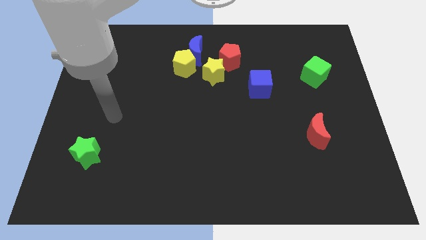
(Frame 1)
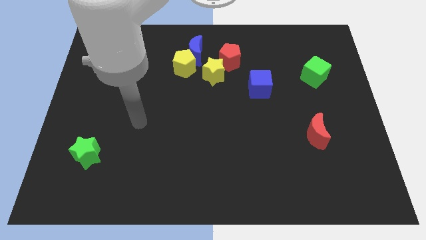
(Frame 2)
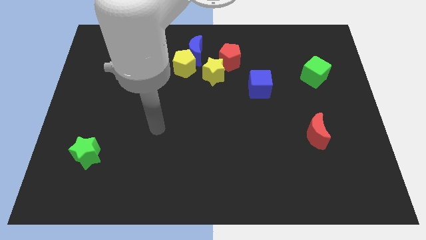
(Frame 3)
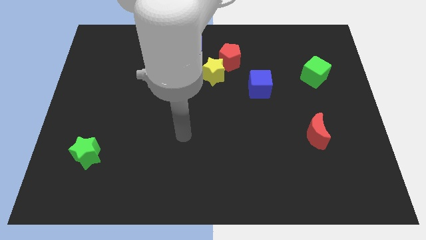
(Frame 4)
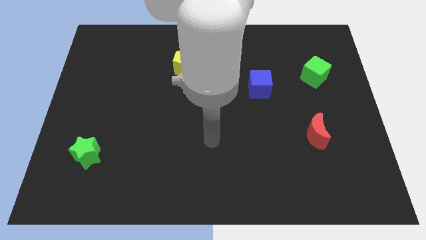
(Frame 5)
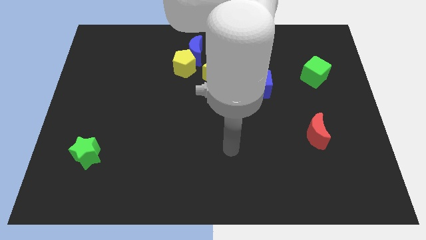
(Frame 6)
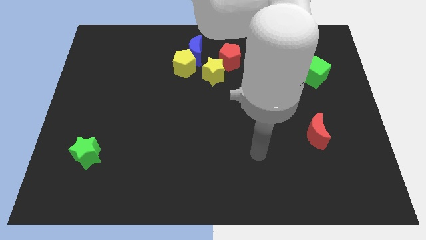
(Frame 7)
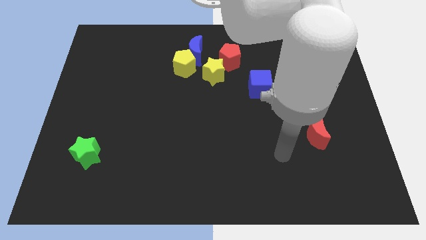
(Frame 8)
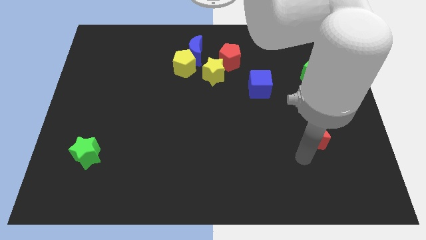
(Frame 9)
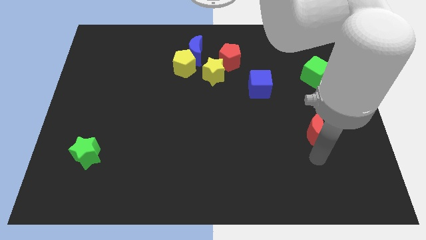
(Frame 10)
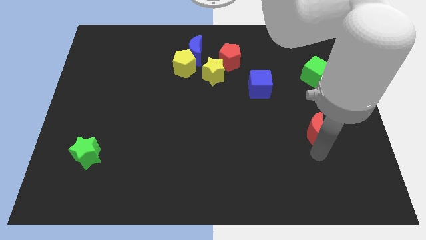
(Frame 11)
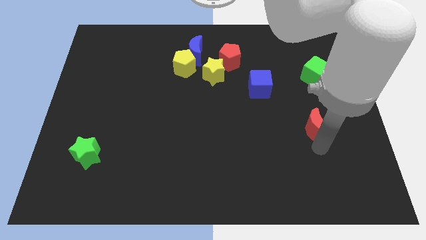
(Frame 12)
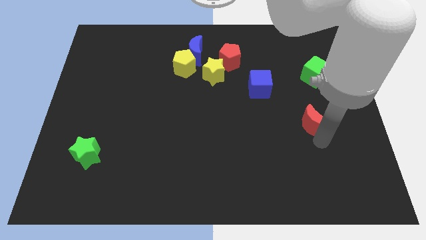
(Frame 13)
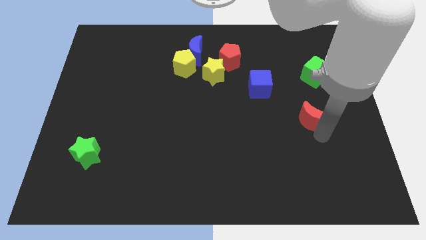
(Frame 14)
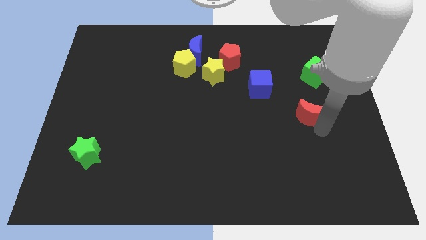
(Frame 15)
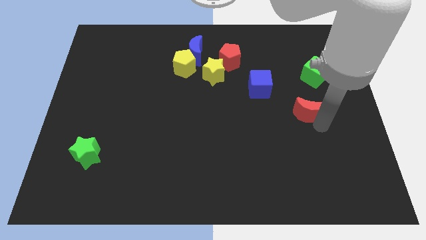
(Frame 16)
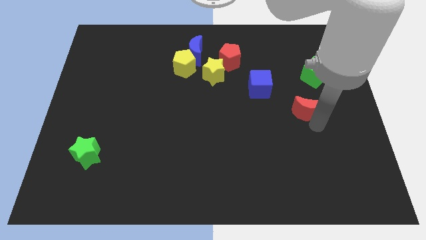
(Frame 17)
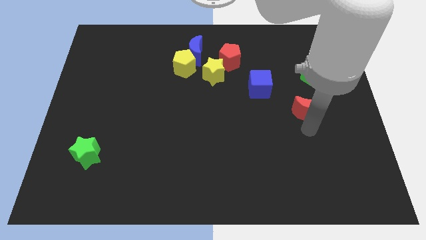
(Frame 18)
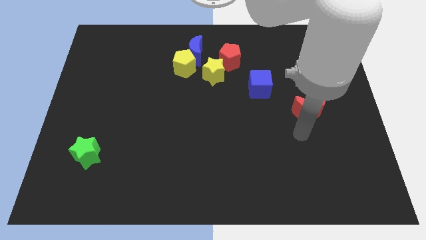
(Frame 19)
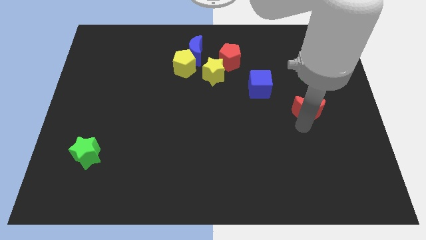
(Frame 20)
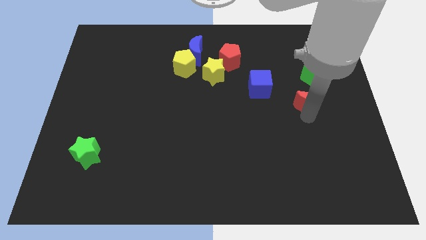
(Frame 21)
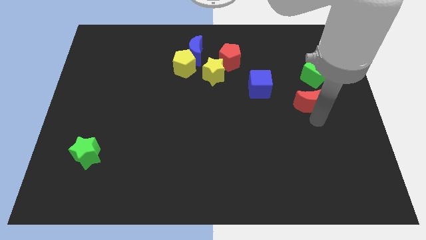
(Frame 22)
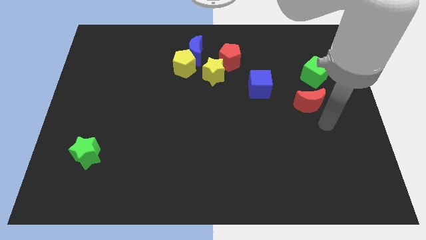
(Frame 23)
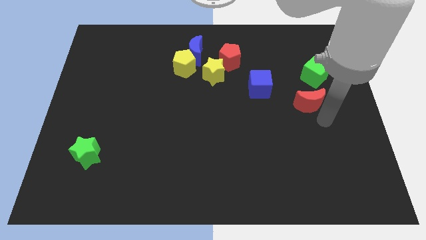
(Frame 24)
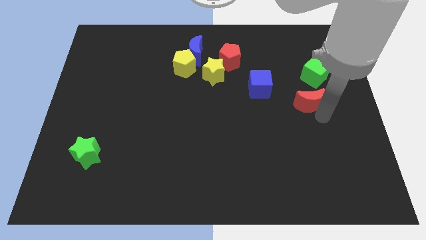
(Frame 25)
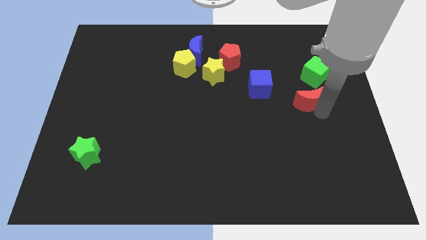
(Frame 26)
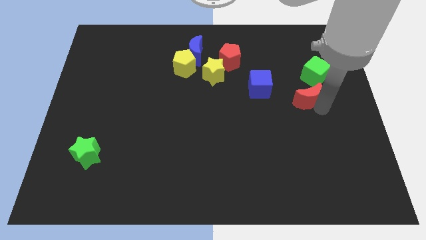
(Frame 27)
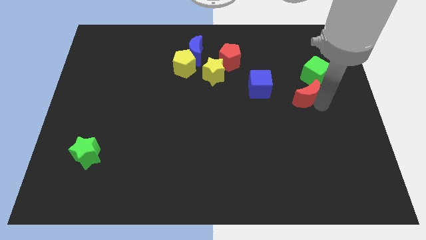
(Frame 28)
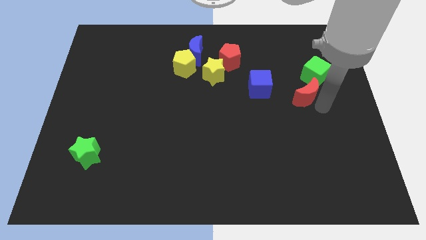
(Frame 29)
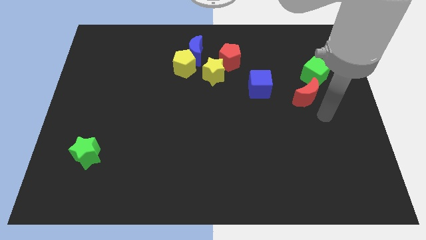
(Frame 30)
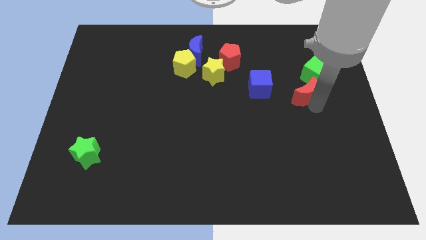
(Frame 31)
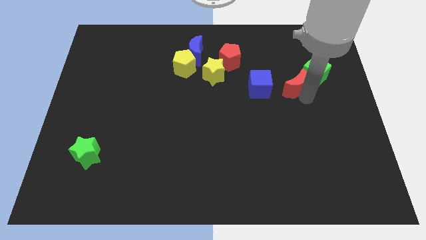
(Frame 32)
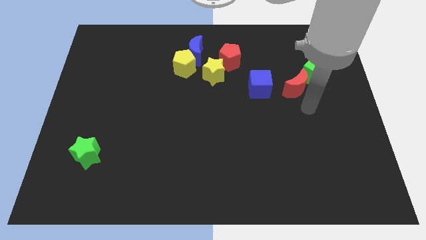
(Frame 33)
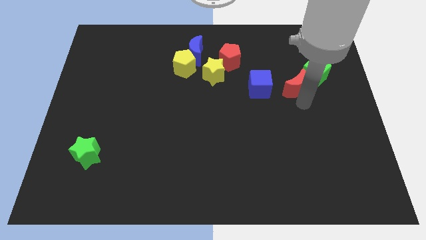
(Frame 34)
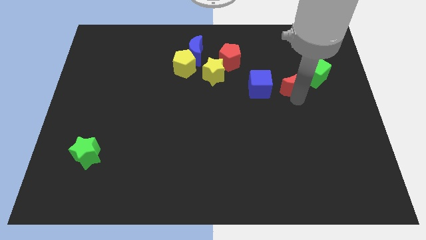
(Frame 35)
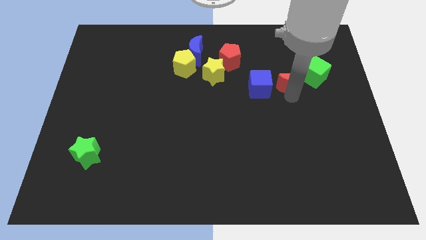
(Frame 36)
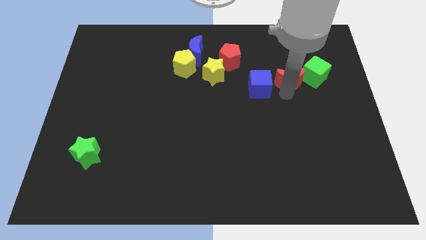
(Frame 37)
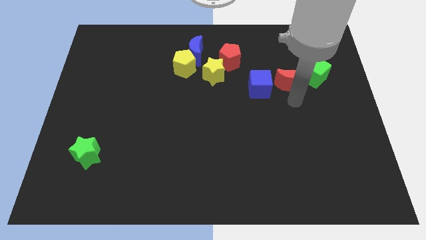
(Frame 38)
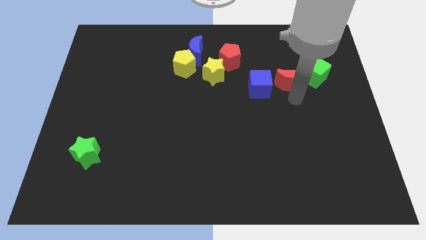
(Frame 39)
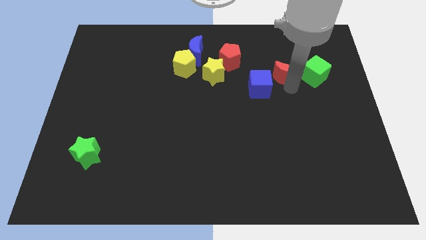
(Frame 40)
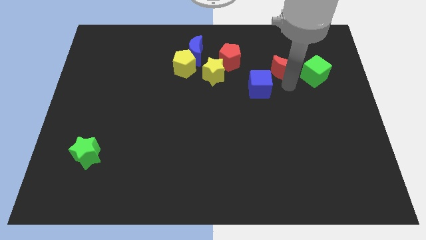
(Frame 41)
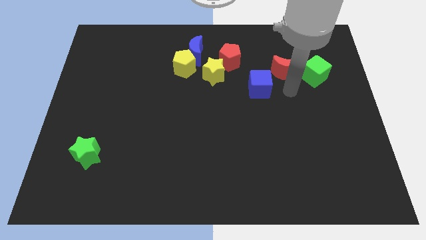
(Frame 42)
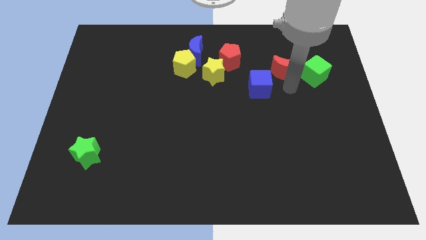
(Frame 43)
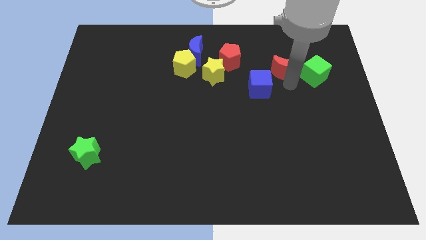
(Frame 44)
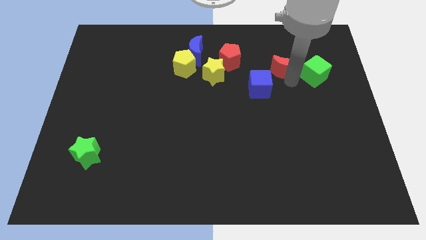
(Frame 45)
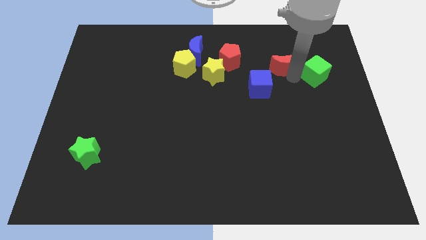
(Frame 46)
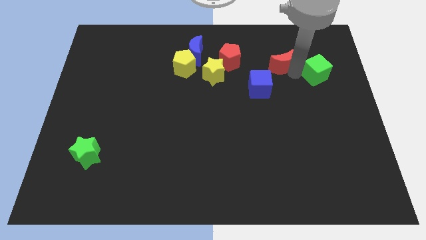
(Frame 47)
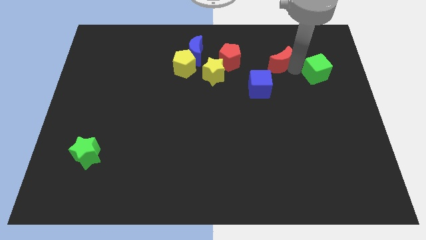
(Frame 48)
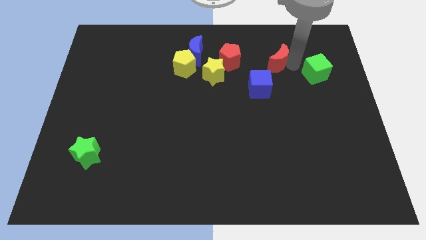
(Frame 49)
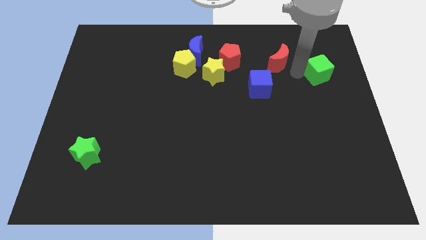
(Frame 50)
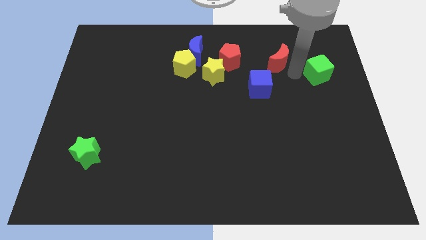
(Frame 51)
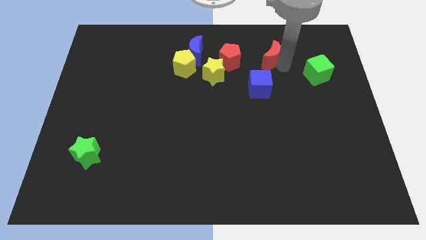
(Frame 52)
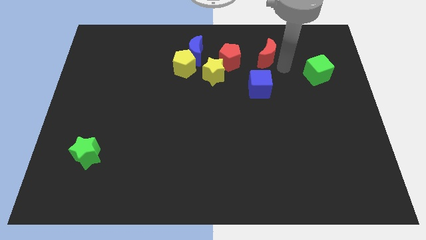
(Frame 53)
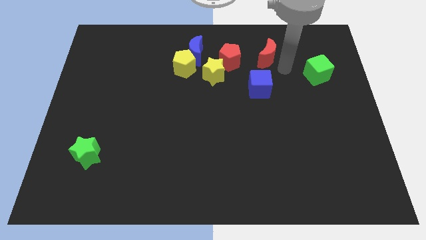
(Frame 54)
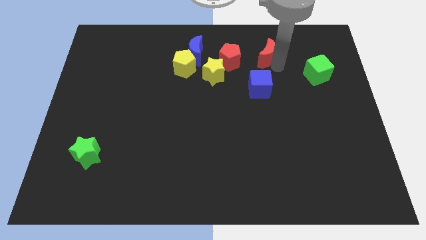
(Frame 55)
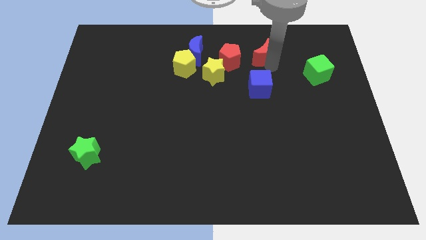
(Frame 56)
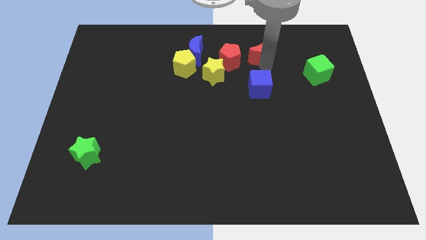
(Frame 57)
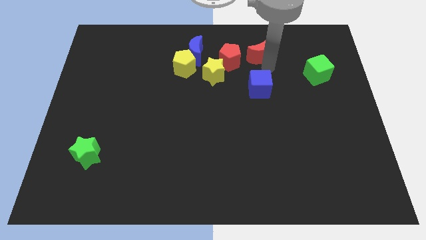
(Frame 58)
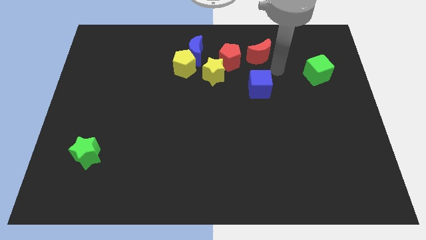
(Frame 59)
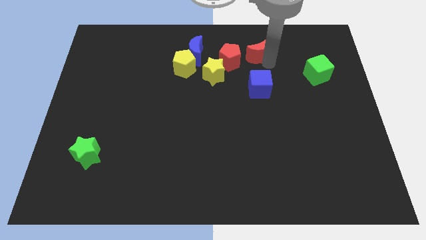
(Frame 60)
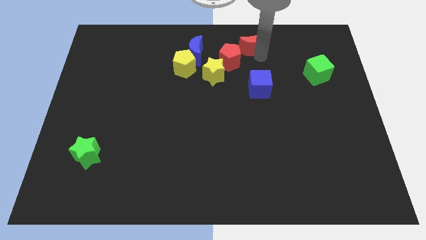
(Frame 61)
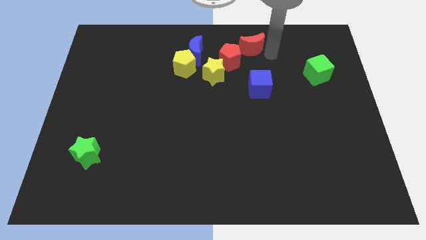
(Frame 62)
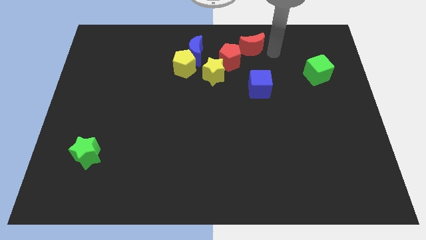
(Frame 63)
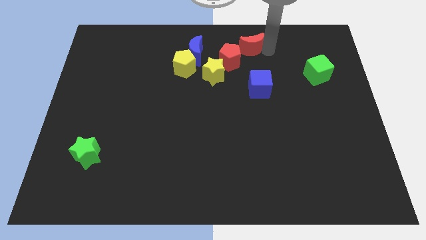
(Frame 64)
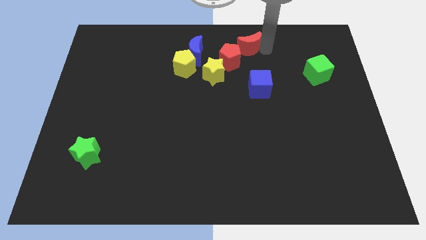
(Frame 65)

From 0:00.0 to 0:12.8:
push the red moon to the top side

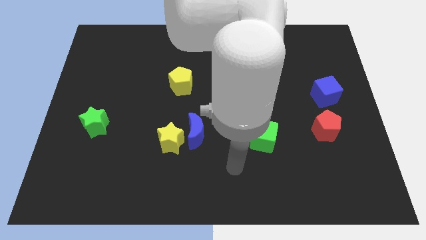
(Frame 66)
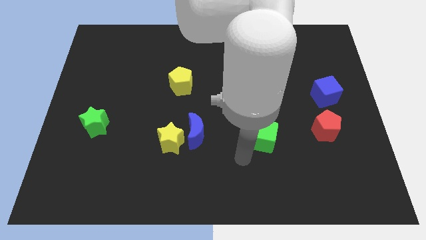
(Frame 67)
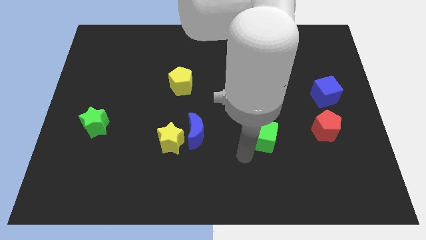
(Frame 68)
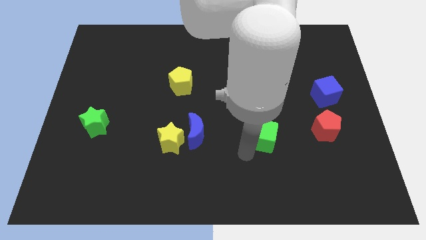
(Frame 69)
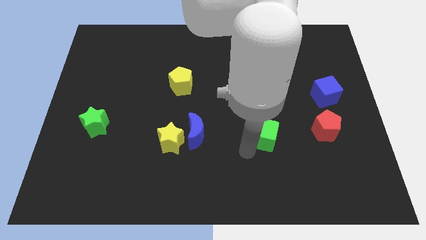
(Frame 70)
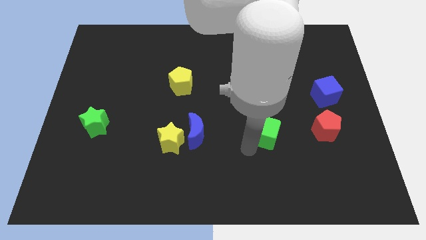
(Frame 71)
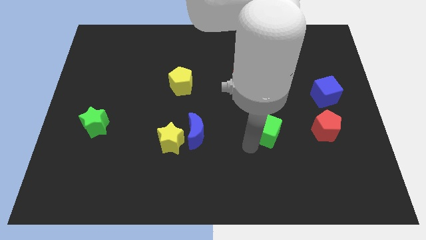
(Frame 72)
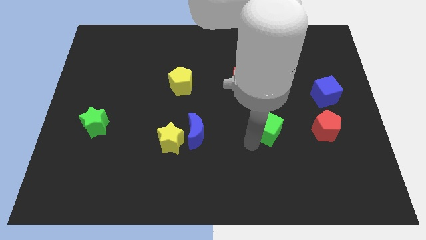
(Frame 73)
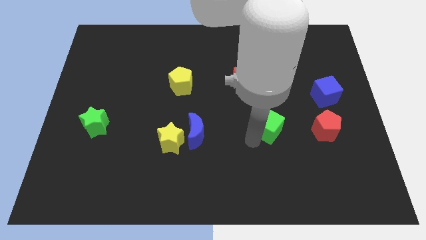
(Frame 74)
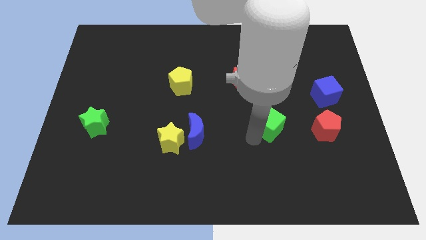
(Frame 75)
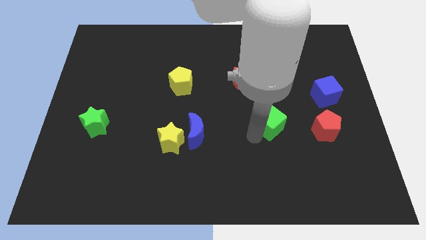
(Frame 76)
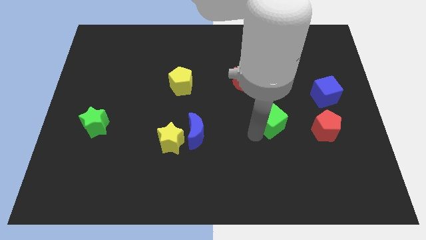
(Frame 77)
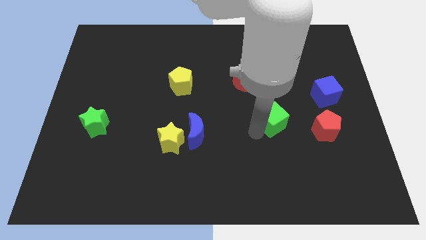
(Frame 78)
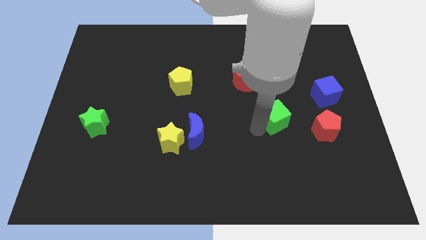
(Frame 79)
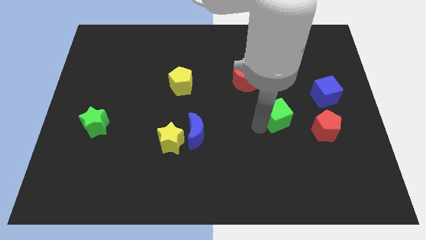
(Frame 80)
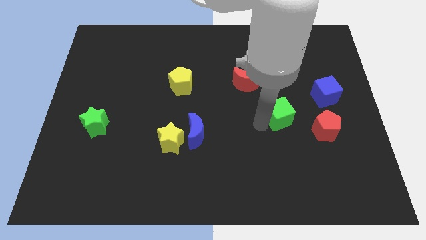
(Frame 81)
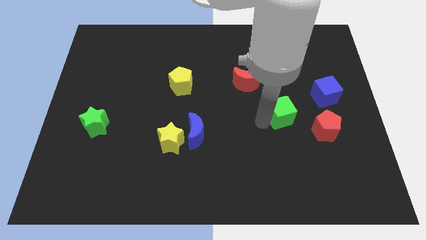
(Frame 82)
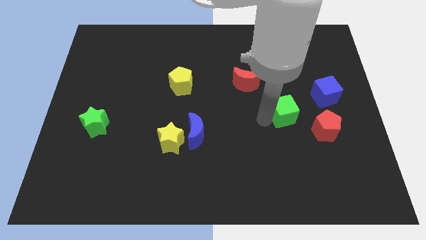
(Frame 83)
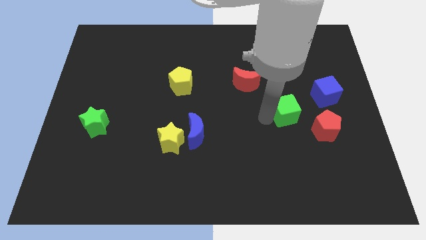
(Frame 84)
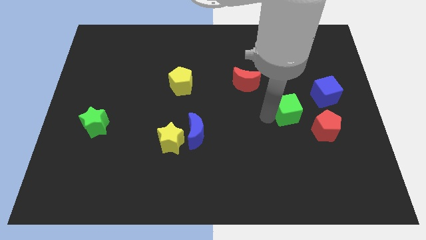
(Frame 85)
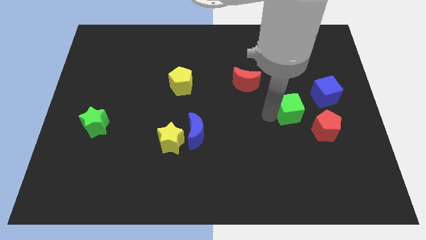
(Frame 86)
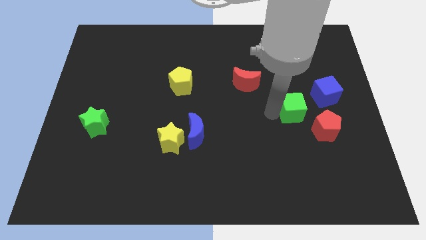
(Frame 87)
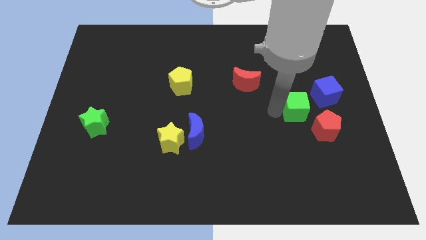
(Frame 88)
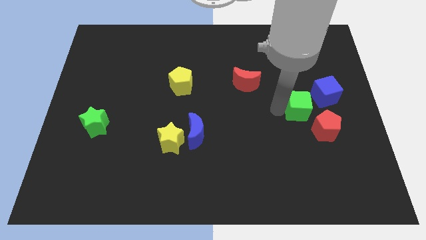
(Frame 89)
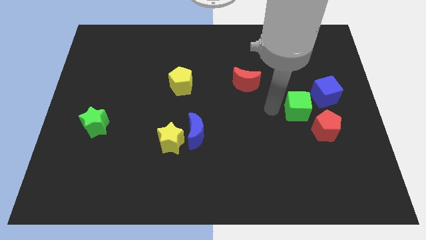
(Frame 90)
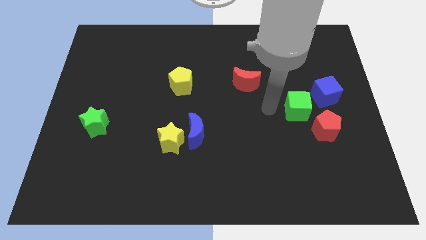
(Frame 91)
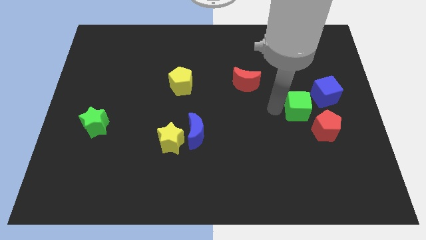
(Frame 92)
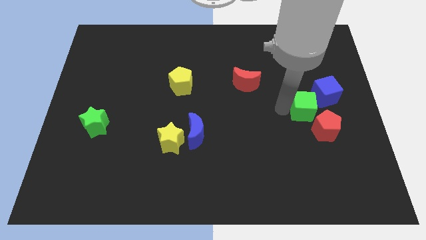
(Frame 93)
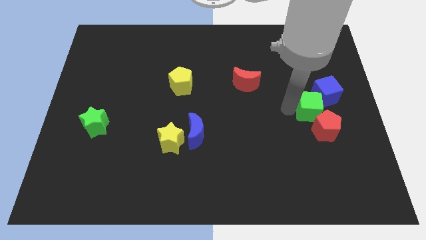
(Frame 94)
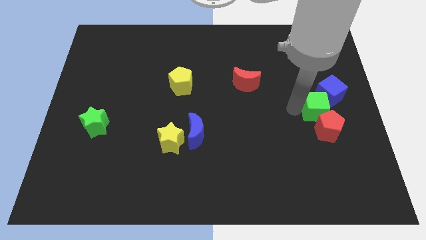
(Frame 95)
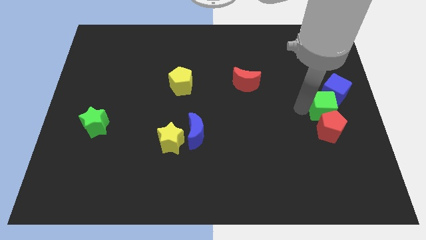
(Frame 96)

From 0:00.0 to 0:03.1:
push the green cube to the right side
